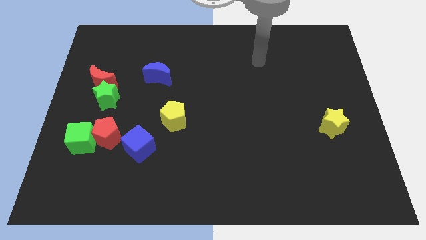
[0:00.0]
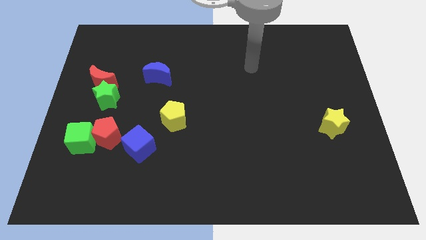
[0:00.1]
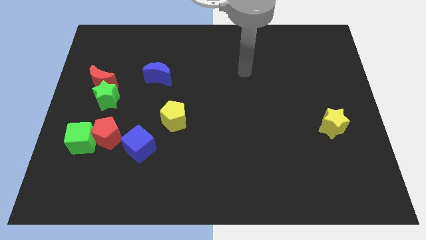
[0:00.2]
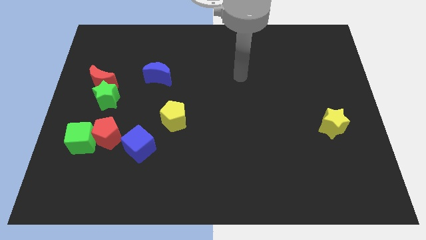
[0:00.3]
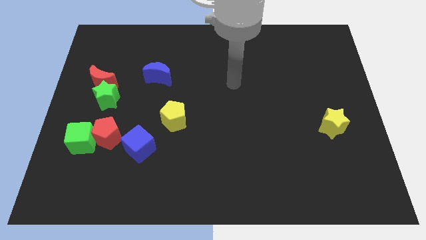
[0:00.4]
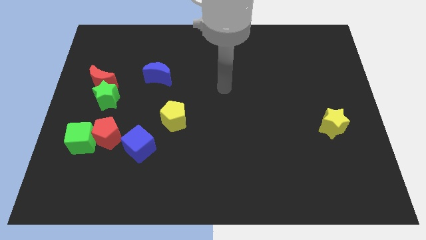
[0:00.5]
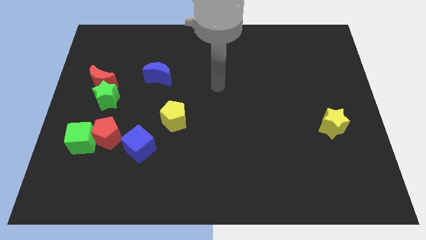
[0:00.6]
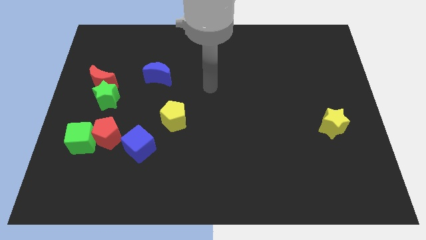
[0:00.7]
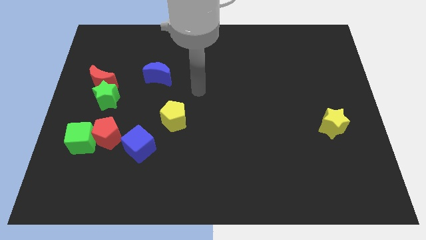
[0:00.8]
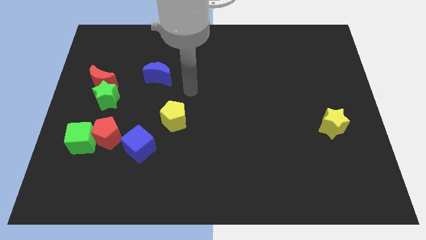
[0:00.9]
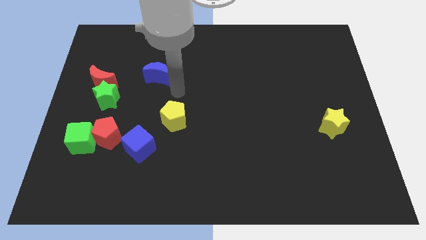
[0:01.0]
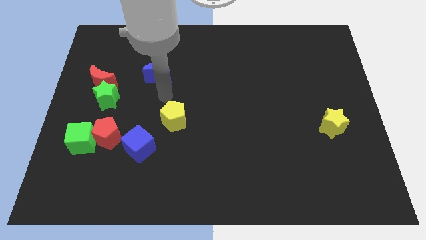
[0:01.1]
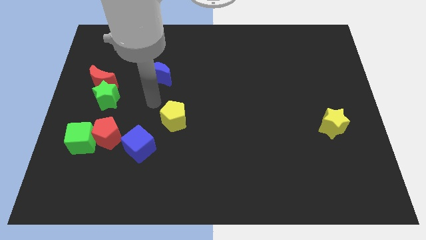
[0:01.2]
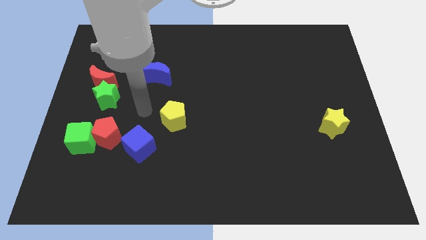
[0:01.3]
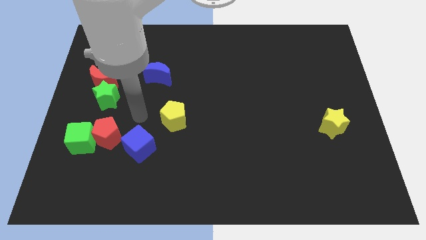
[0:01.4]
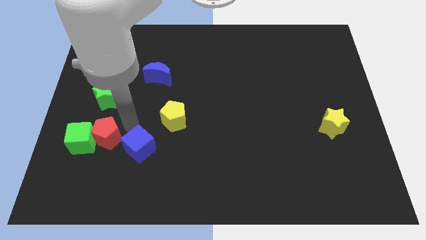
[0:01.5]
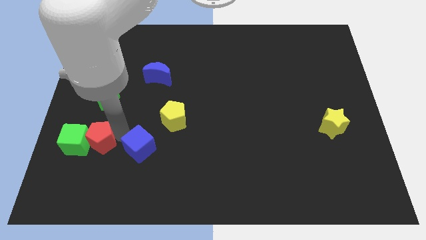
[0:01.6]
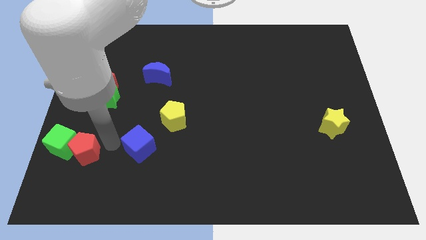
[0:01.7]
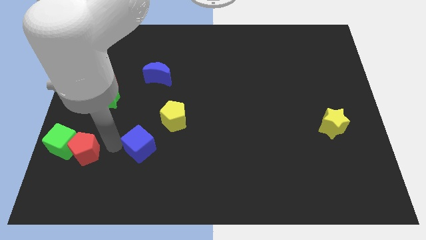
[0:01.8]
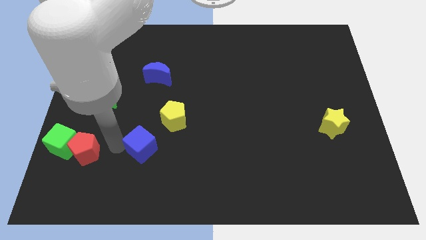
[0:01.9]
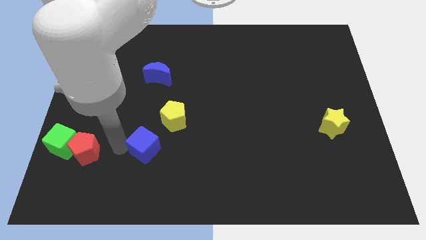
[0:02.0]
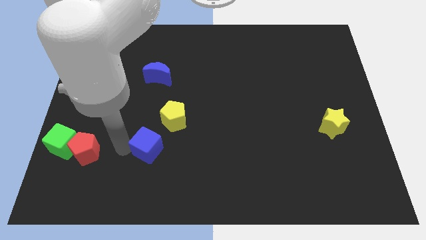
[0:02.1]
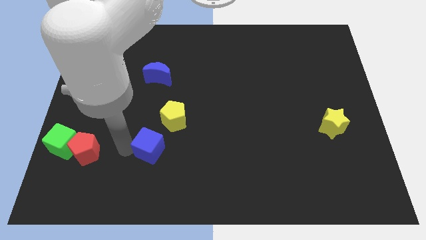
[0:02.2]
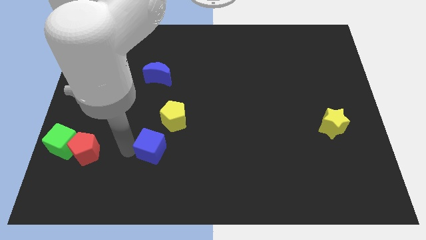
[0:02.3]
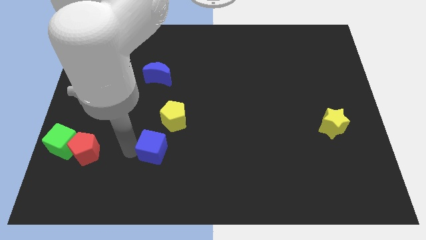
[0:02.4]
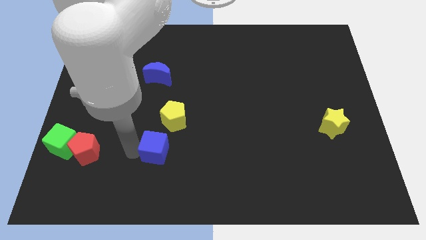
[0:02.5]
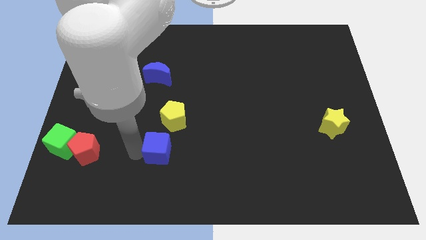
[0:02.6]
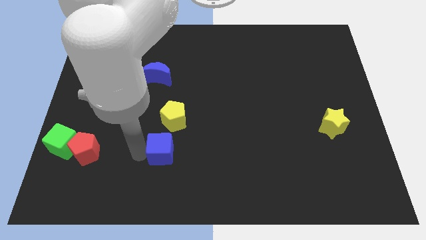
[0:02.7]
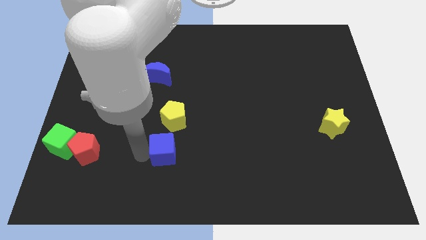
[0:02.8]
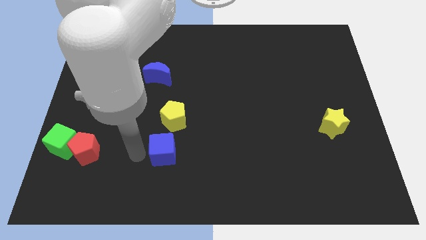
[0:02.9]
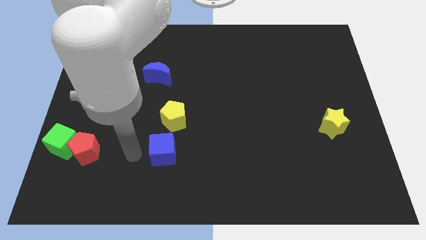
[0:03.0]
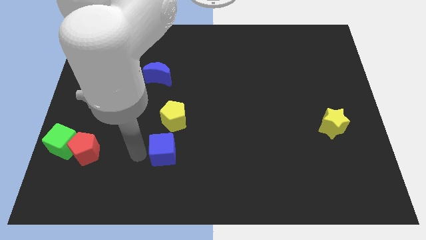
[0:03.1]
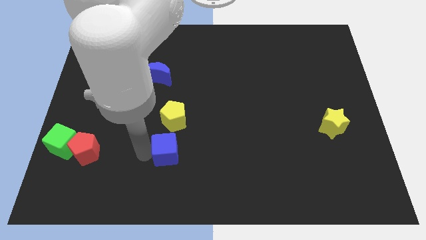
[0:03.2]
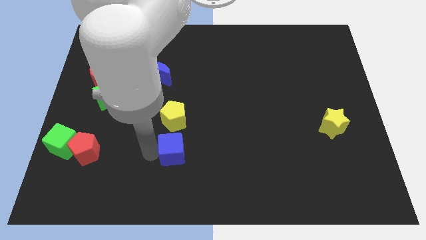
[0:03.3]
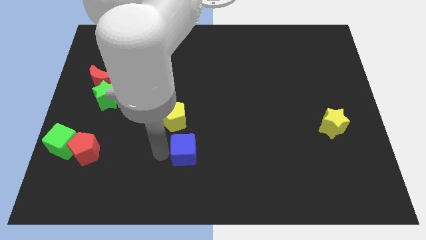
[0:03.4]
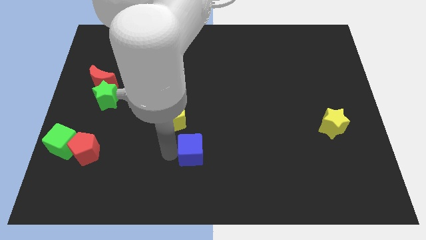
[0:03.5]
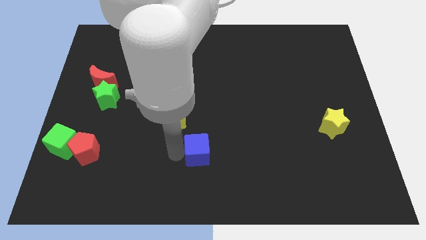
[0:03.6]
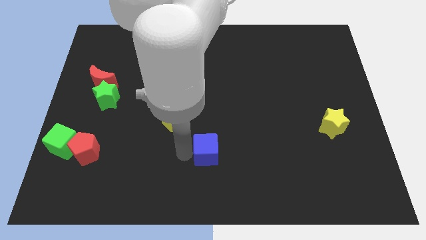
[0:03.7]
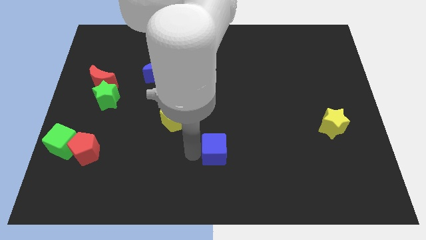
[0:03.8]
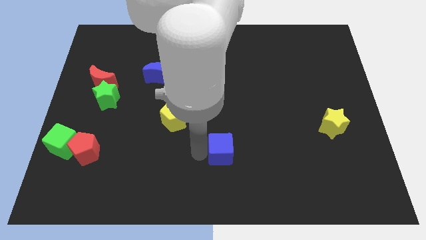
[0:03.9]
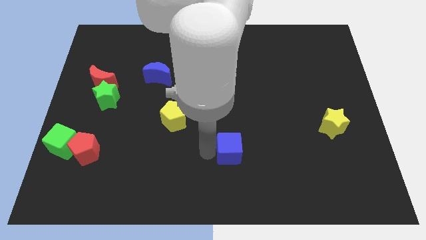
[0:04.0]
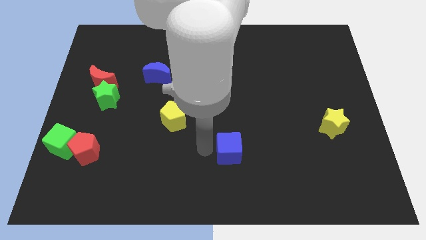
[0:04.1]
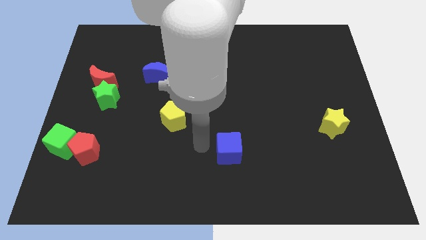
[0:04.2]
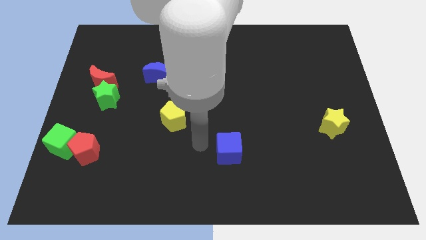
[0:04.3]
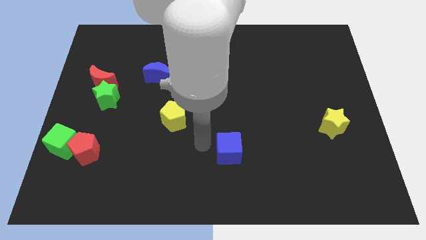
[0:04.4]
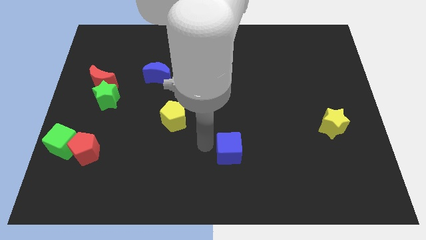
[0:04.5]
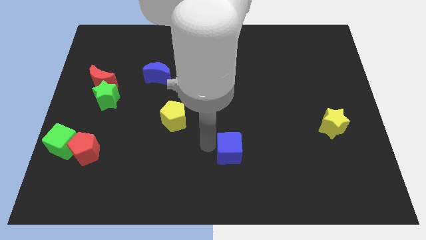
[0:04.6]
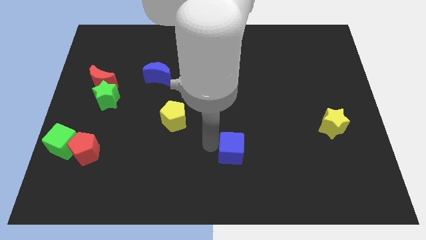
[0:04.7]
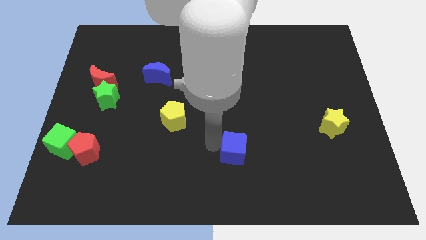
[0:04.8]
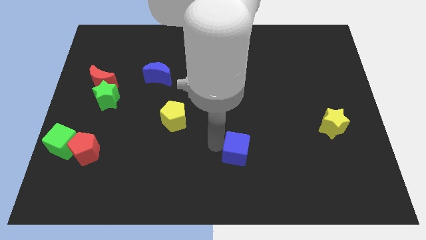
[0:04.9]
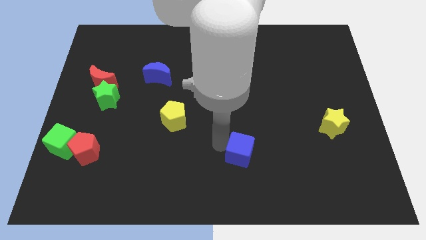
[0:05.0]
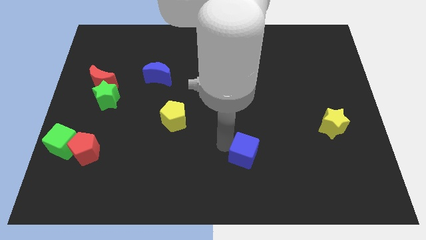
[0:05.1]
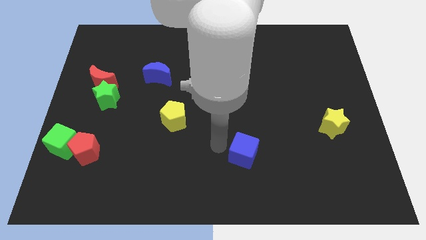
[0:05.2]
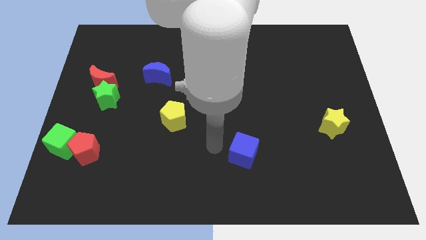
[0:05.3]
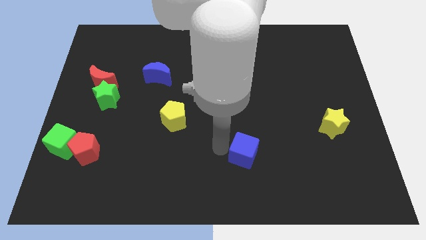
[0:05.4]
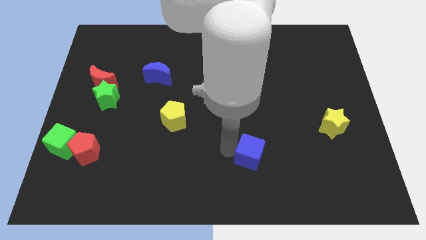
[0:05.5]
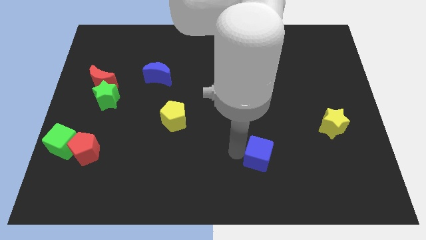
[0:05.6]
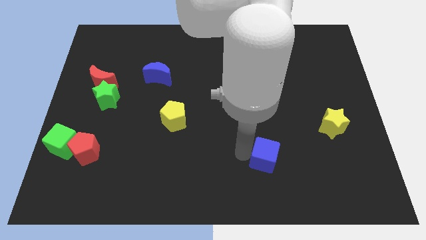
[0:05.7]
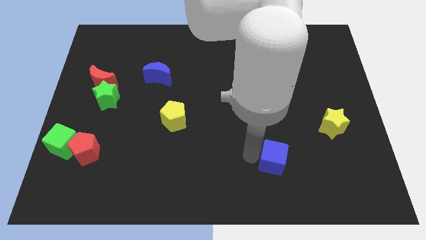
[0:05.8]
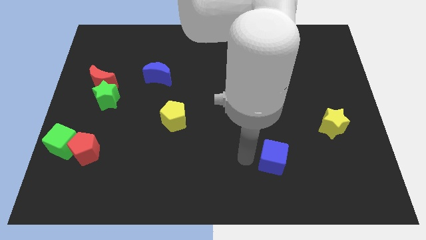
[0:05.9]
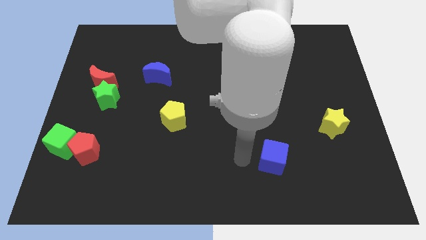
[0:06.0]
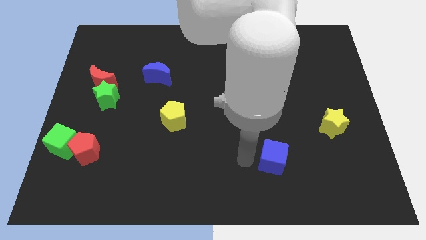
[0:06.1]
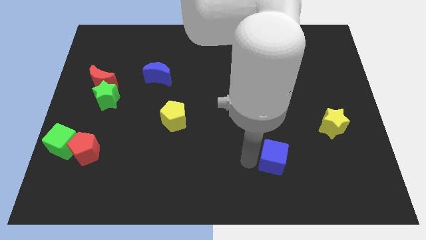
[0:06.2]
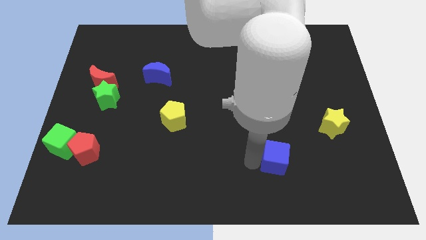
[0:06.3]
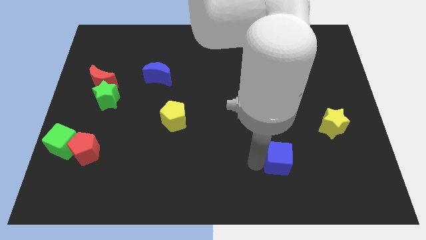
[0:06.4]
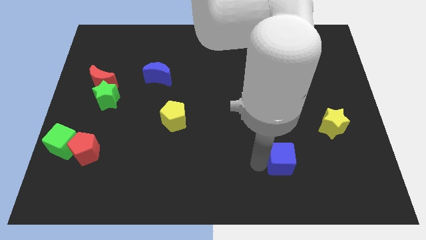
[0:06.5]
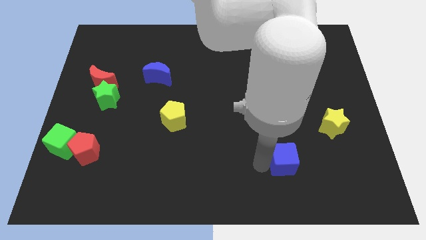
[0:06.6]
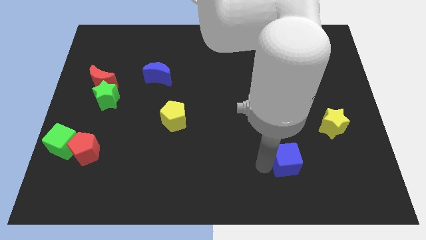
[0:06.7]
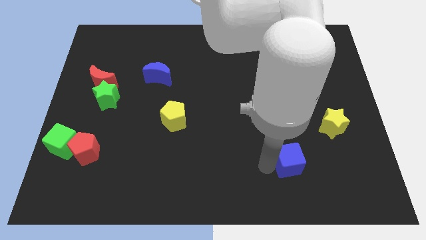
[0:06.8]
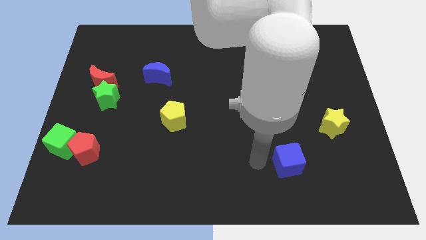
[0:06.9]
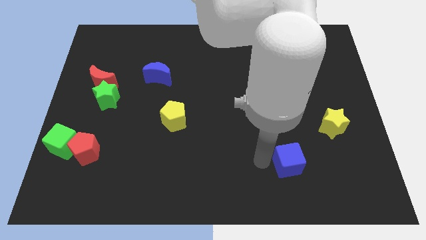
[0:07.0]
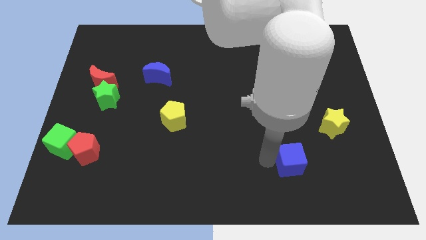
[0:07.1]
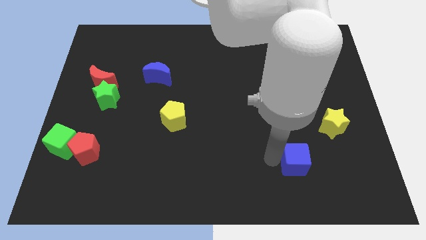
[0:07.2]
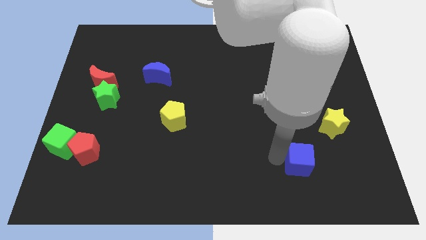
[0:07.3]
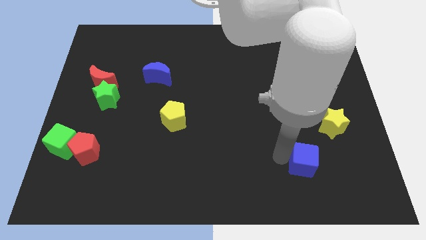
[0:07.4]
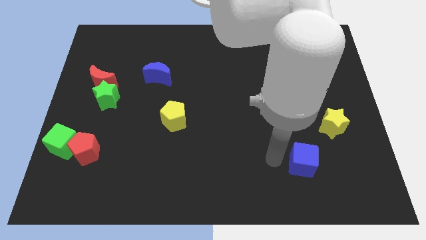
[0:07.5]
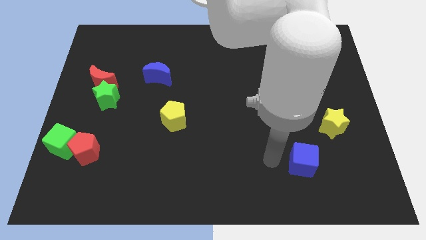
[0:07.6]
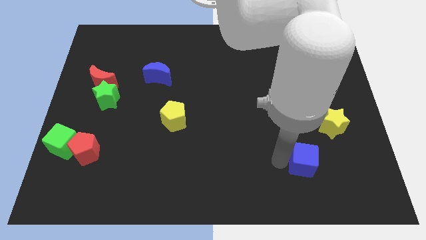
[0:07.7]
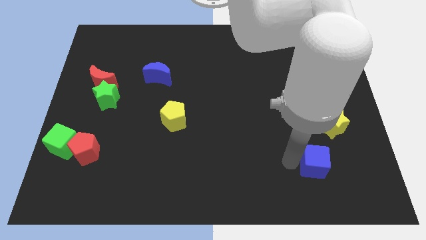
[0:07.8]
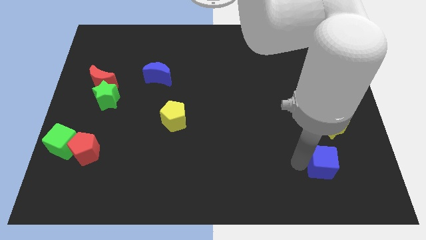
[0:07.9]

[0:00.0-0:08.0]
slide the blue cube below the yellow star

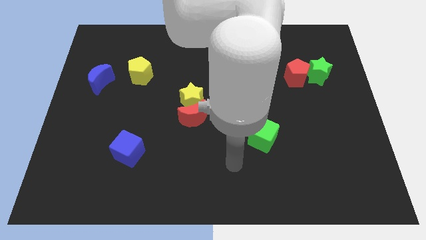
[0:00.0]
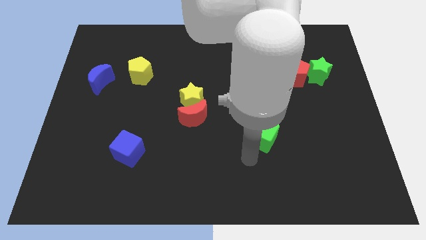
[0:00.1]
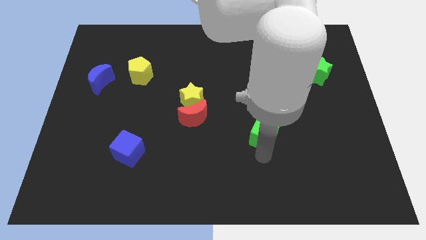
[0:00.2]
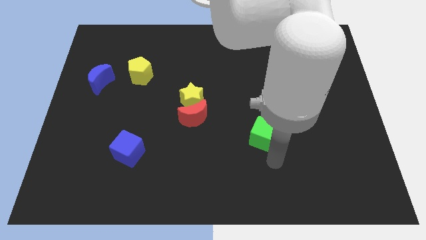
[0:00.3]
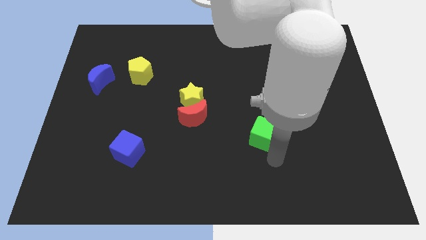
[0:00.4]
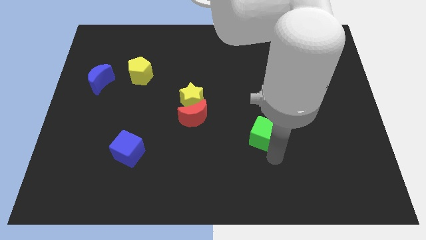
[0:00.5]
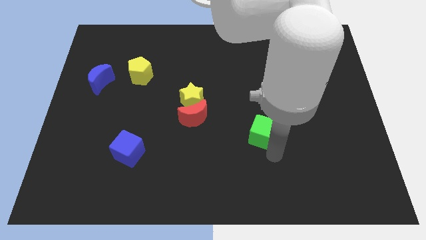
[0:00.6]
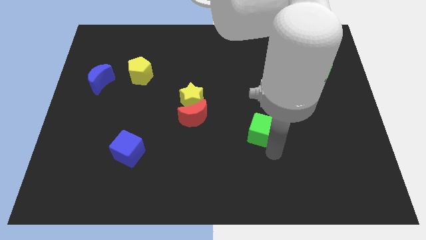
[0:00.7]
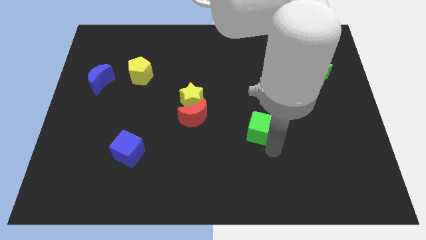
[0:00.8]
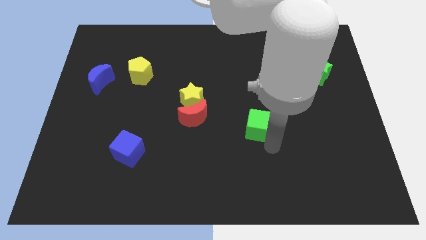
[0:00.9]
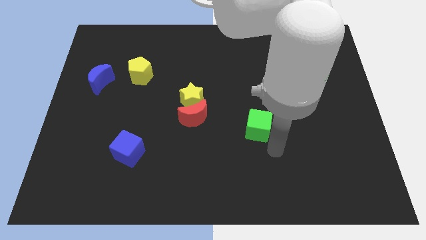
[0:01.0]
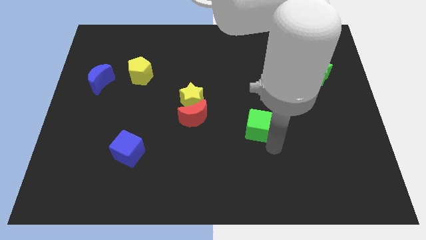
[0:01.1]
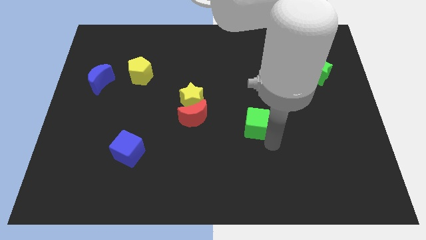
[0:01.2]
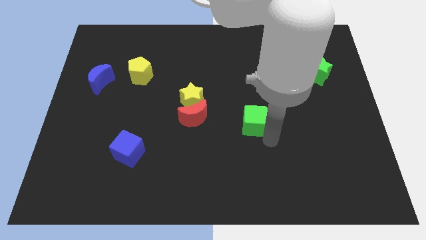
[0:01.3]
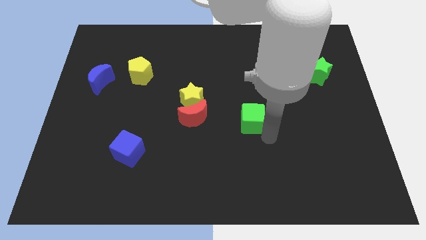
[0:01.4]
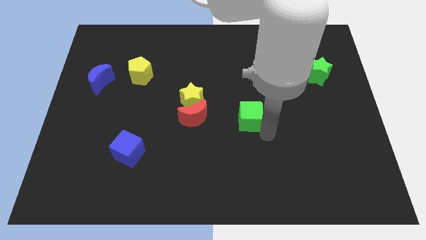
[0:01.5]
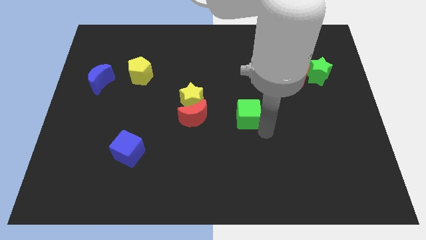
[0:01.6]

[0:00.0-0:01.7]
slide the green cube right of the yellow star
